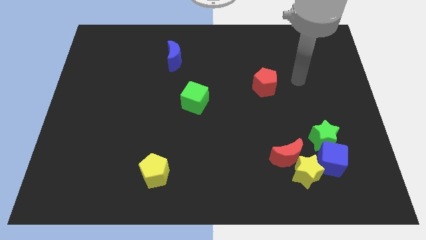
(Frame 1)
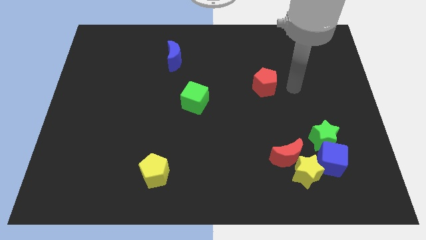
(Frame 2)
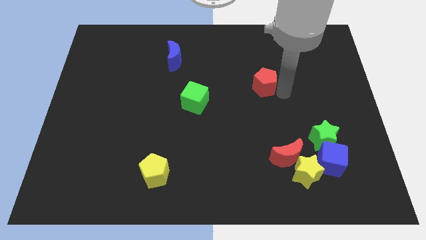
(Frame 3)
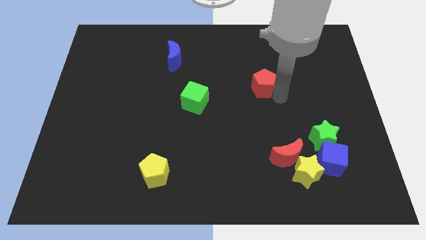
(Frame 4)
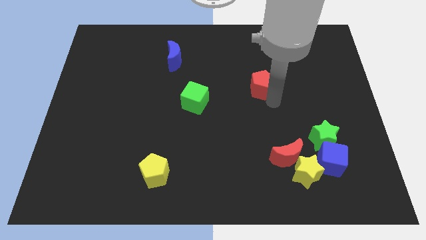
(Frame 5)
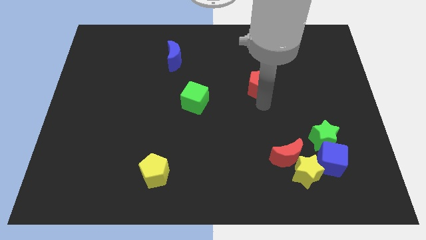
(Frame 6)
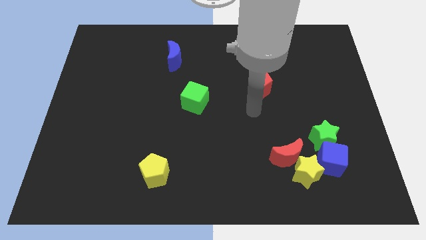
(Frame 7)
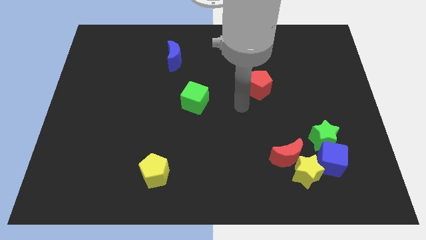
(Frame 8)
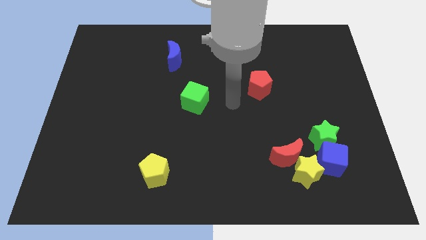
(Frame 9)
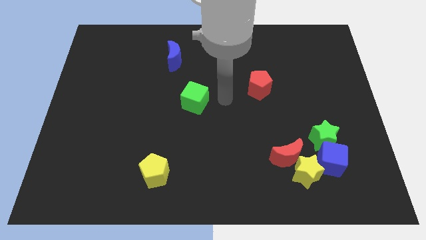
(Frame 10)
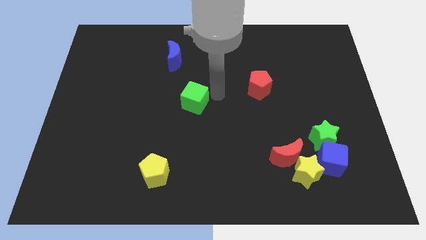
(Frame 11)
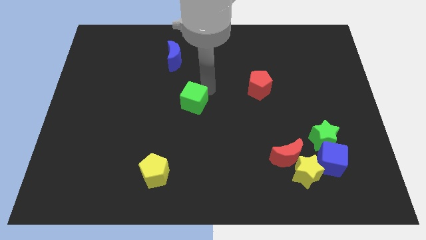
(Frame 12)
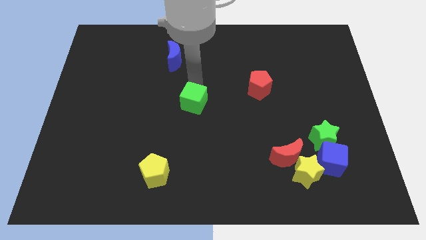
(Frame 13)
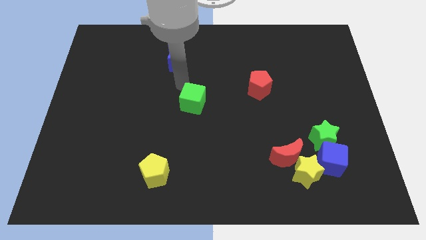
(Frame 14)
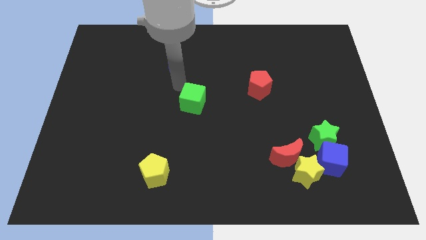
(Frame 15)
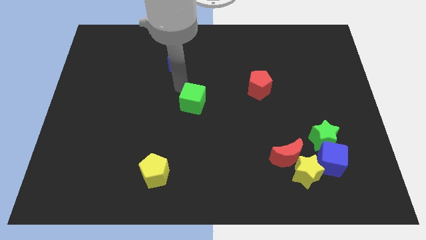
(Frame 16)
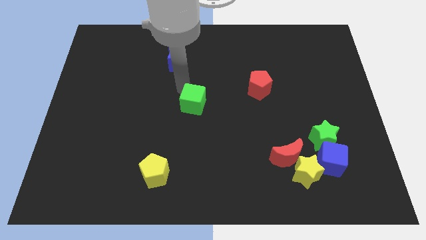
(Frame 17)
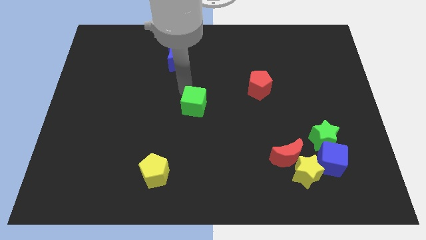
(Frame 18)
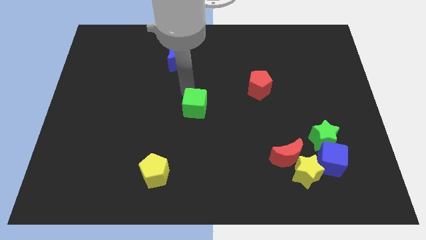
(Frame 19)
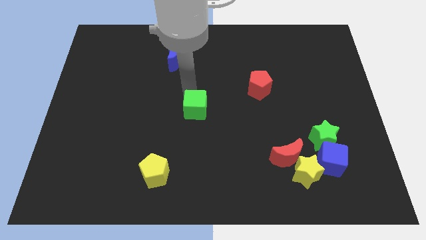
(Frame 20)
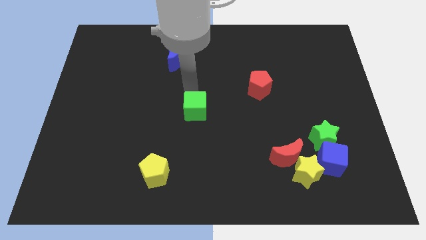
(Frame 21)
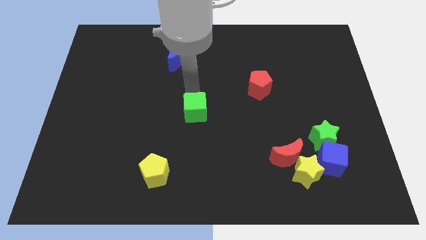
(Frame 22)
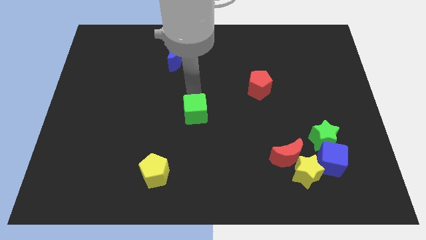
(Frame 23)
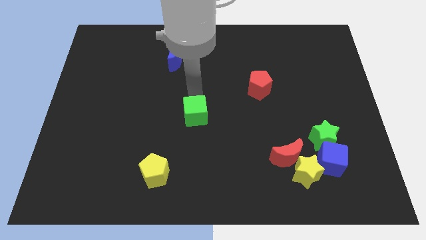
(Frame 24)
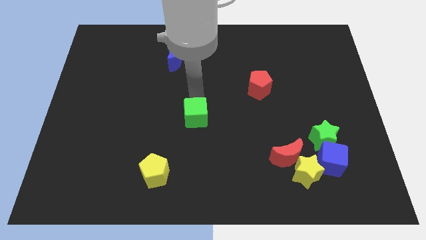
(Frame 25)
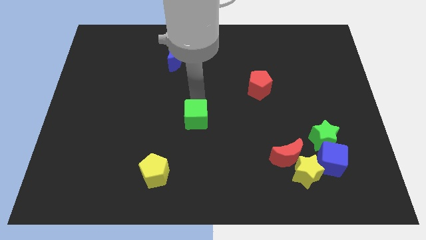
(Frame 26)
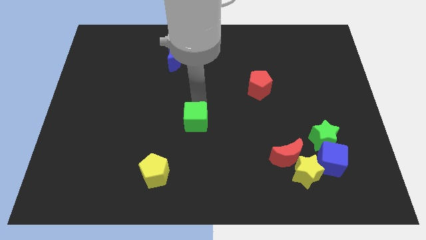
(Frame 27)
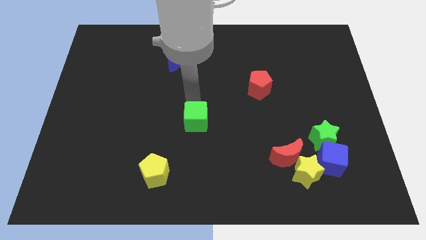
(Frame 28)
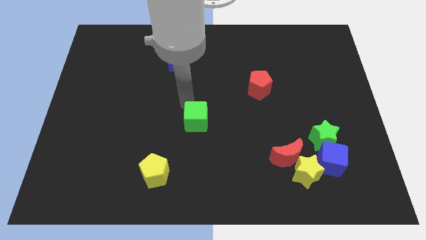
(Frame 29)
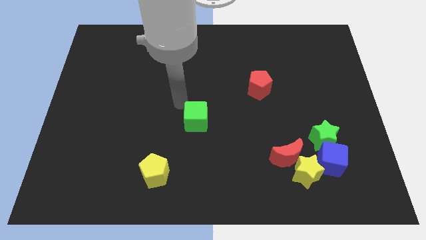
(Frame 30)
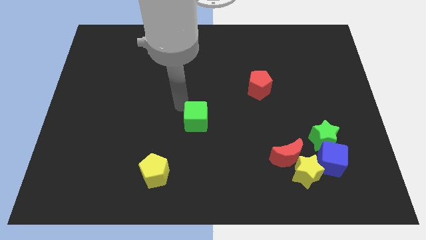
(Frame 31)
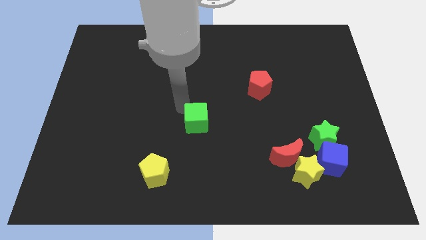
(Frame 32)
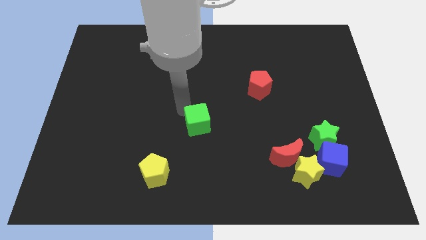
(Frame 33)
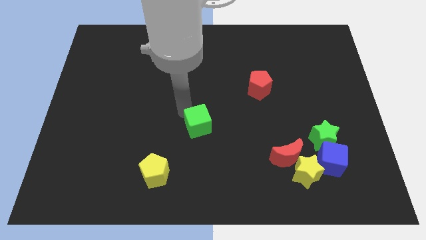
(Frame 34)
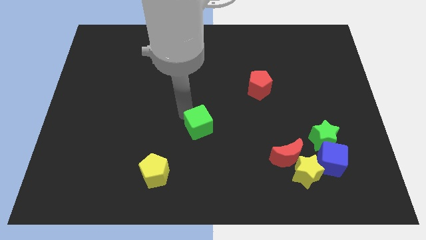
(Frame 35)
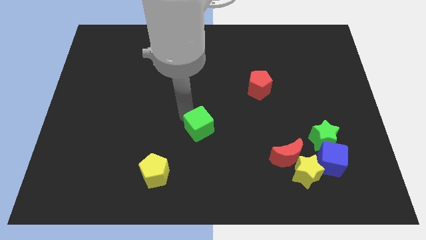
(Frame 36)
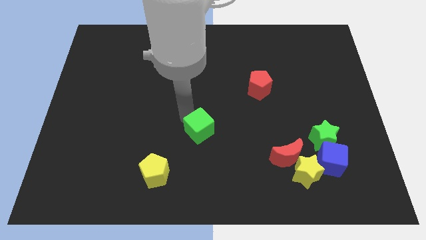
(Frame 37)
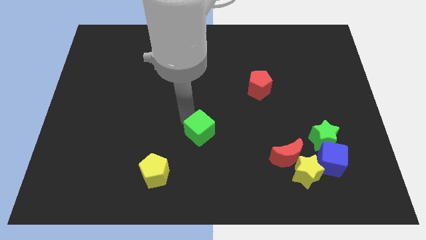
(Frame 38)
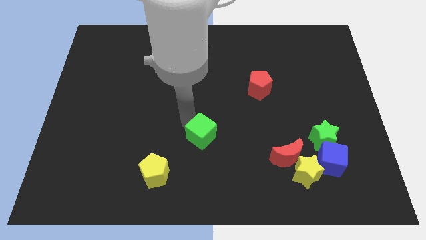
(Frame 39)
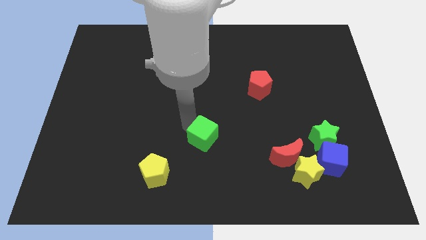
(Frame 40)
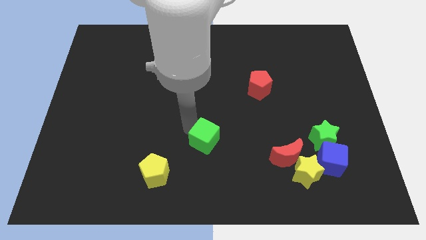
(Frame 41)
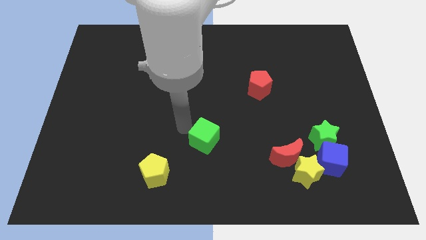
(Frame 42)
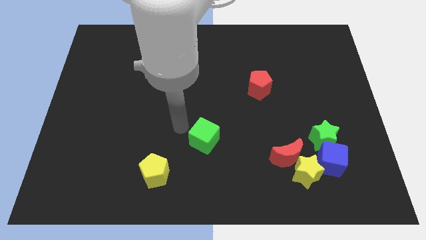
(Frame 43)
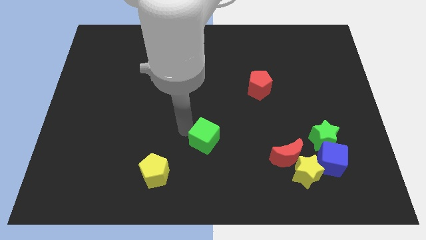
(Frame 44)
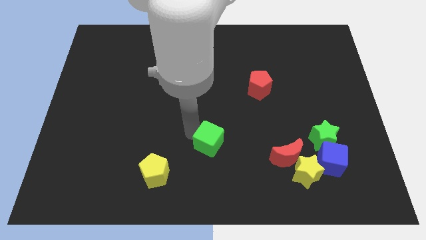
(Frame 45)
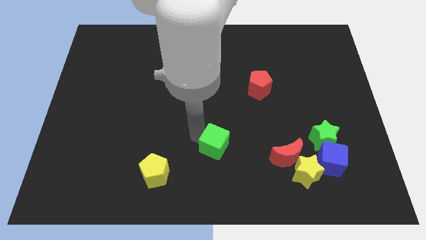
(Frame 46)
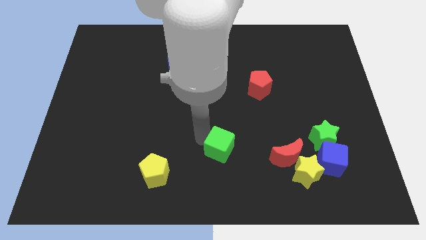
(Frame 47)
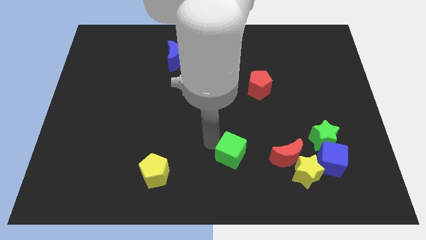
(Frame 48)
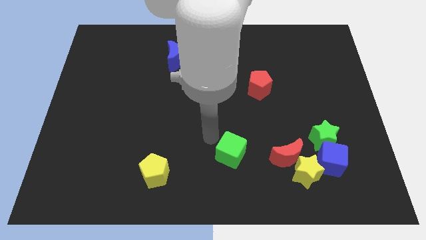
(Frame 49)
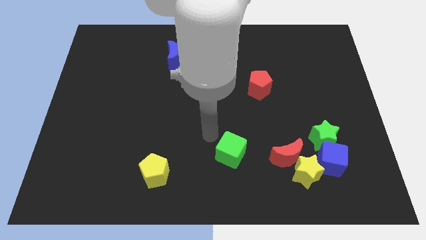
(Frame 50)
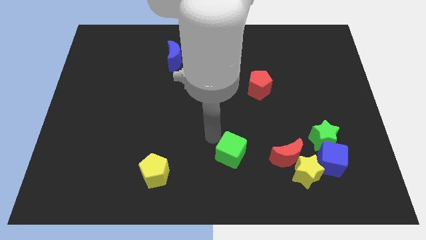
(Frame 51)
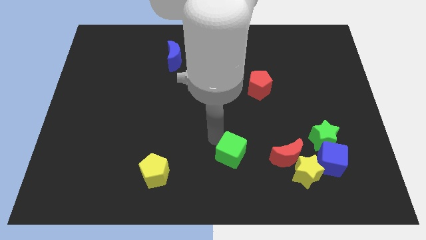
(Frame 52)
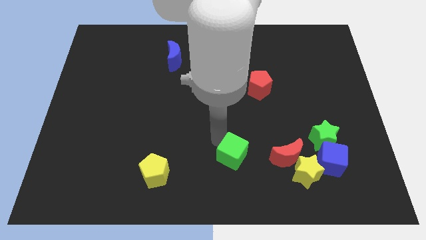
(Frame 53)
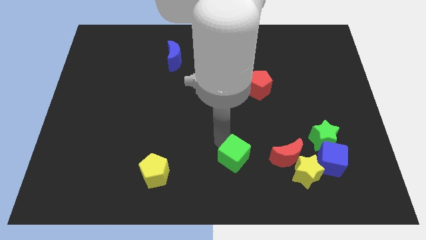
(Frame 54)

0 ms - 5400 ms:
move the green cube left of the yellow star

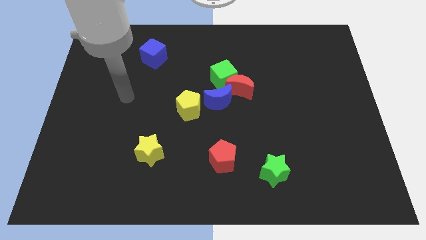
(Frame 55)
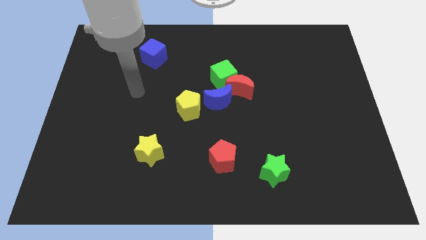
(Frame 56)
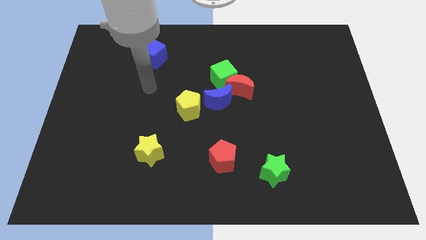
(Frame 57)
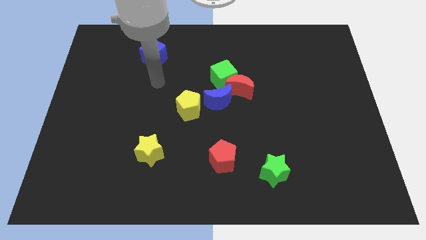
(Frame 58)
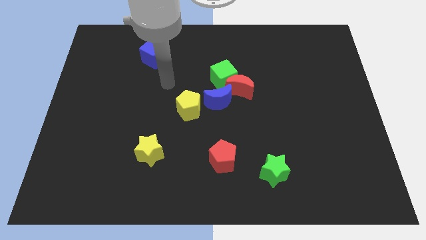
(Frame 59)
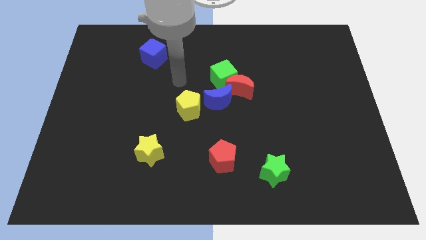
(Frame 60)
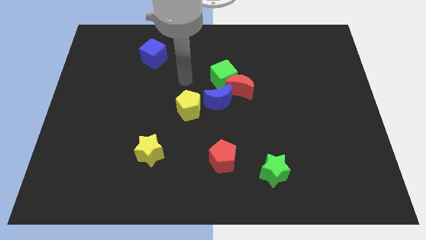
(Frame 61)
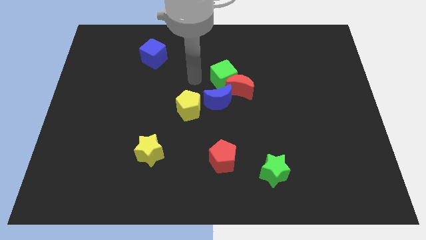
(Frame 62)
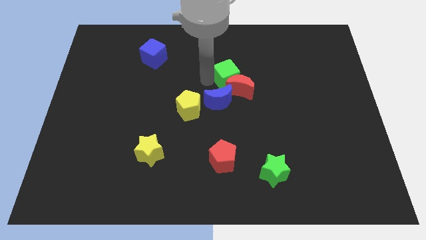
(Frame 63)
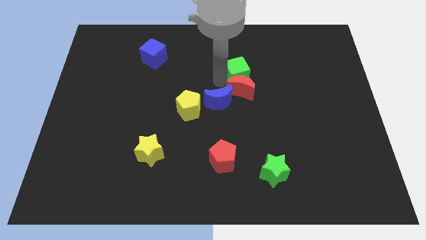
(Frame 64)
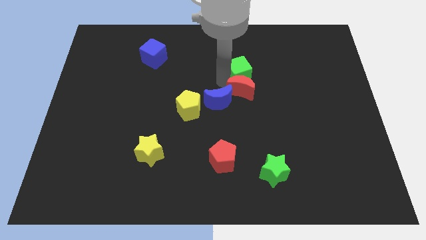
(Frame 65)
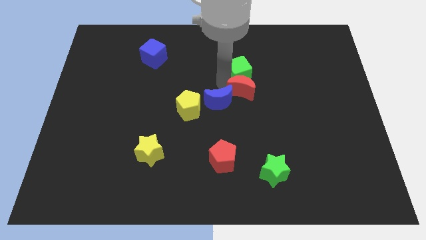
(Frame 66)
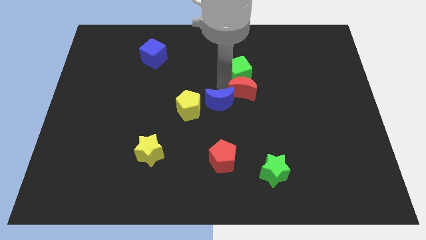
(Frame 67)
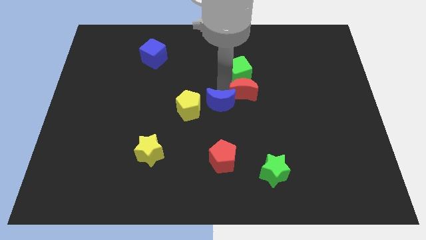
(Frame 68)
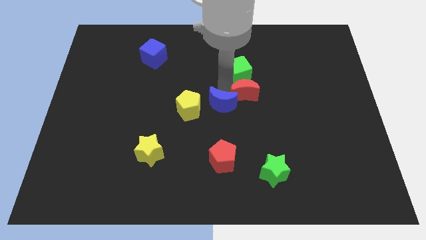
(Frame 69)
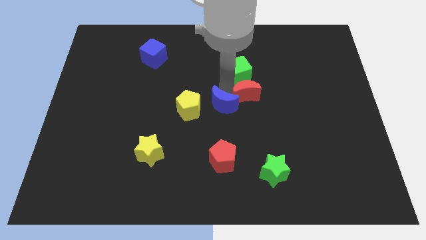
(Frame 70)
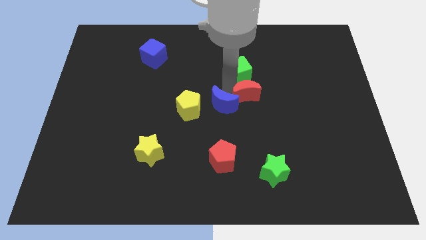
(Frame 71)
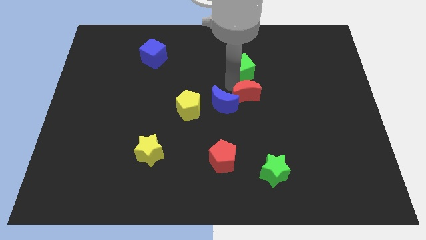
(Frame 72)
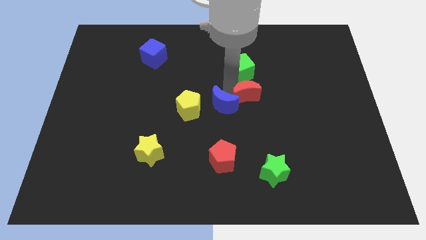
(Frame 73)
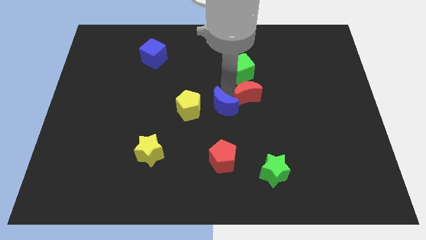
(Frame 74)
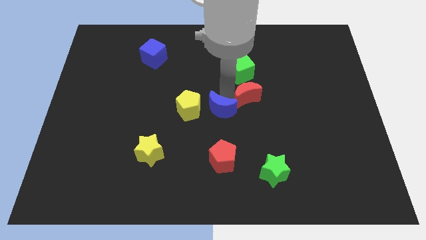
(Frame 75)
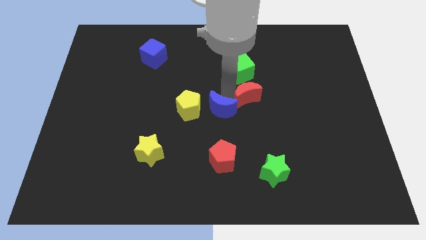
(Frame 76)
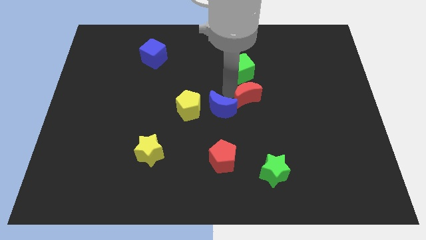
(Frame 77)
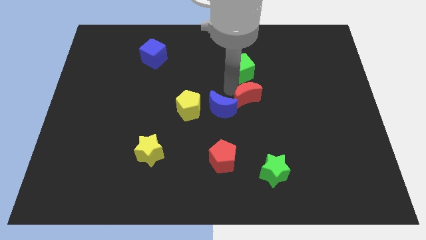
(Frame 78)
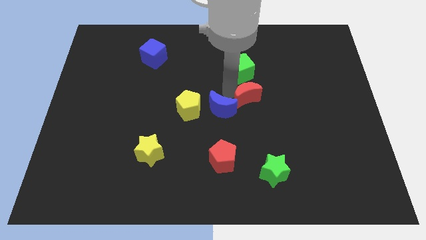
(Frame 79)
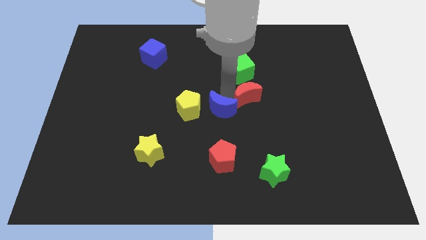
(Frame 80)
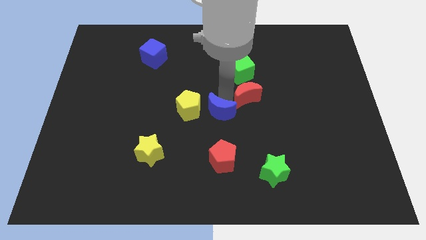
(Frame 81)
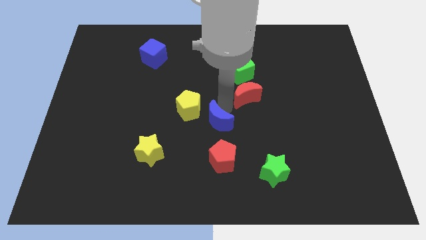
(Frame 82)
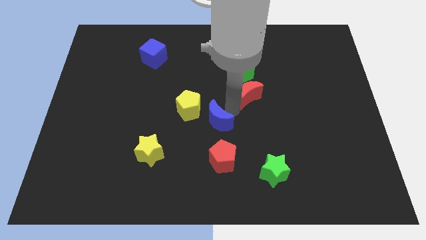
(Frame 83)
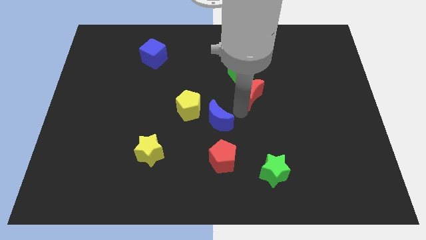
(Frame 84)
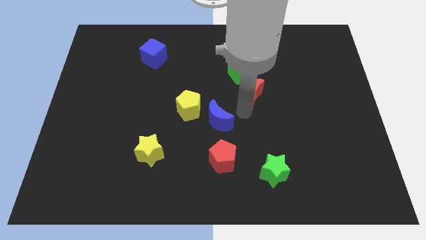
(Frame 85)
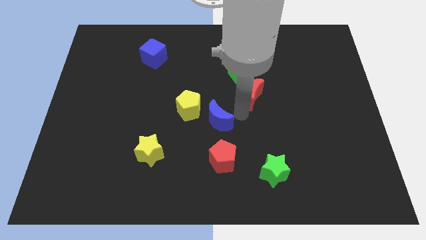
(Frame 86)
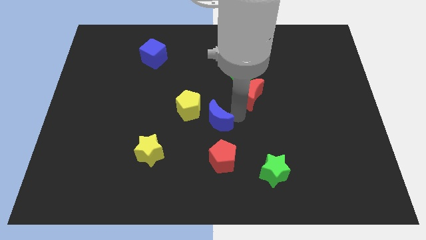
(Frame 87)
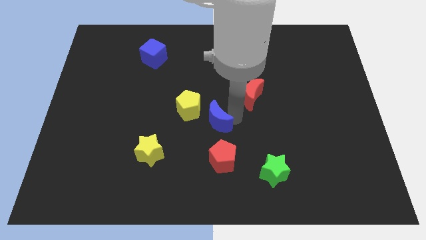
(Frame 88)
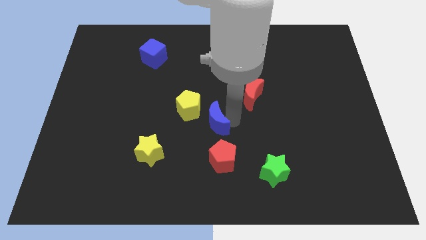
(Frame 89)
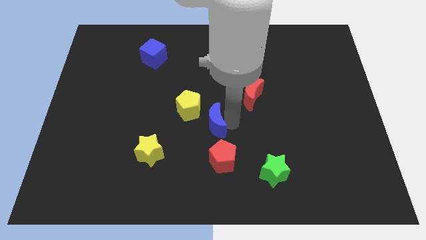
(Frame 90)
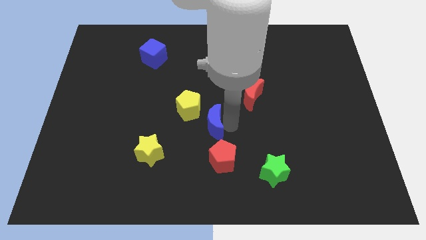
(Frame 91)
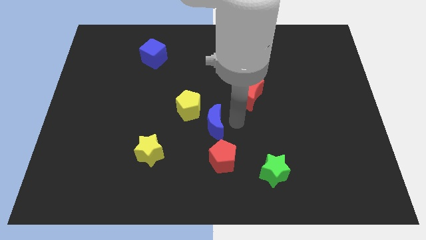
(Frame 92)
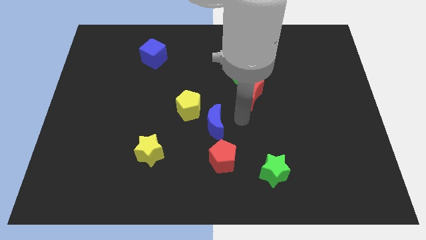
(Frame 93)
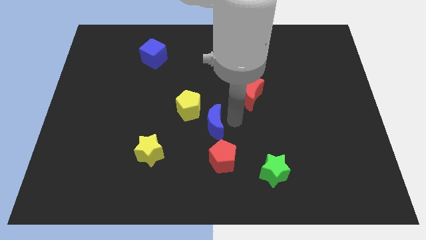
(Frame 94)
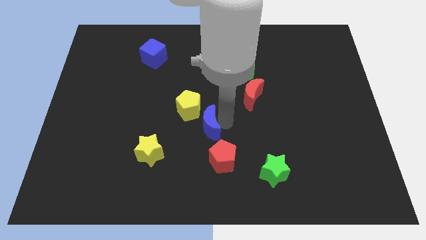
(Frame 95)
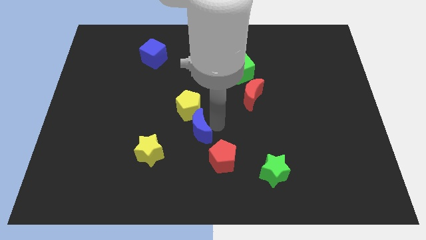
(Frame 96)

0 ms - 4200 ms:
put the blue moon to the top right side of the yellow star
